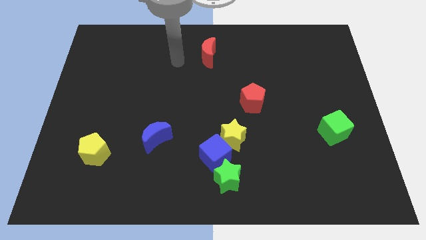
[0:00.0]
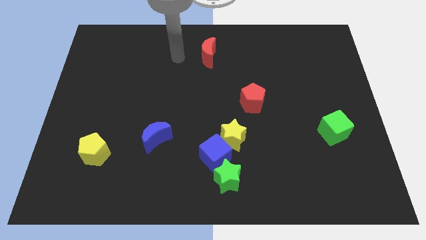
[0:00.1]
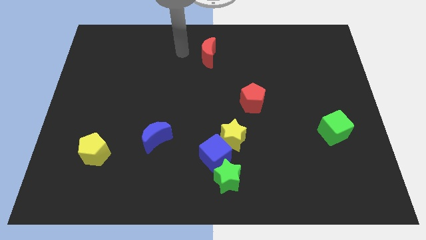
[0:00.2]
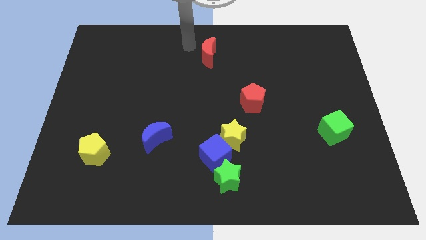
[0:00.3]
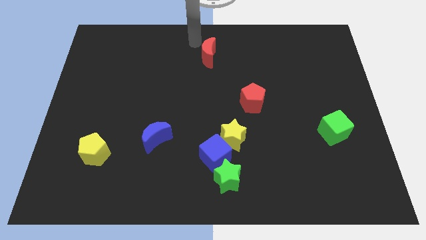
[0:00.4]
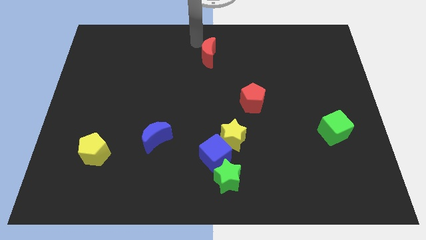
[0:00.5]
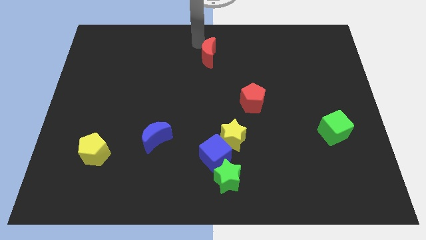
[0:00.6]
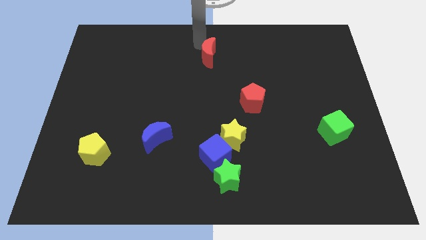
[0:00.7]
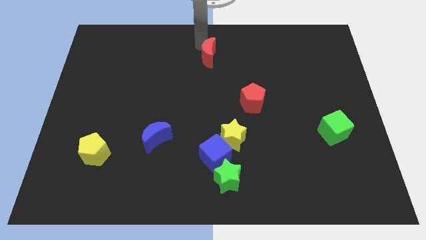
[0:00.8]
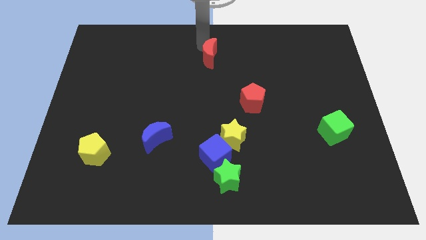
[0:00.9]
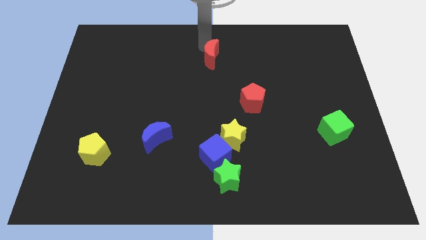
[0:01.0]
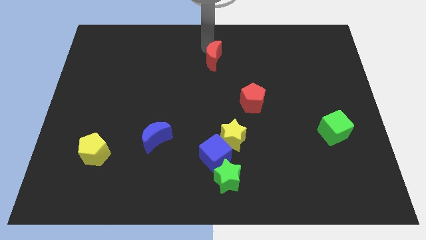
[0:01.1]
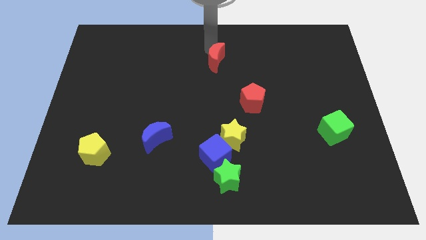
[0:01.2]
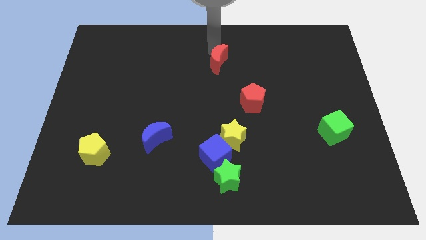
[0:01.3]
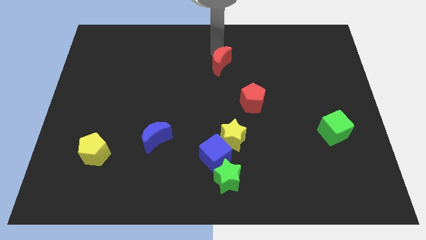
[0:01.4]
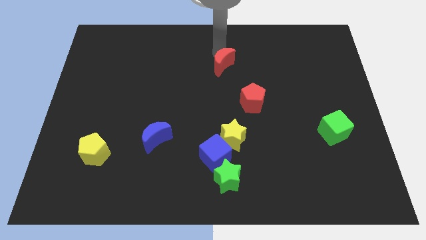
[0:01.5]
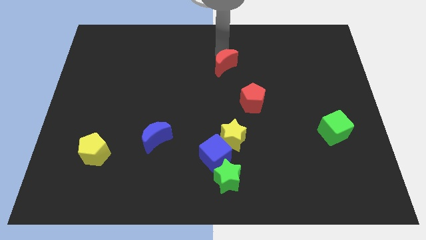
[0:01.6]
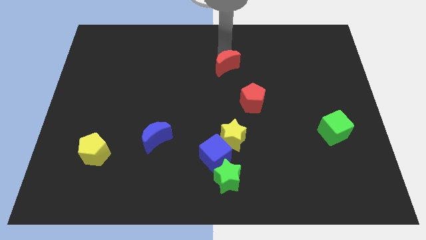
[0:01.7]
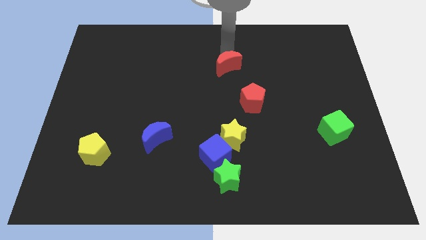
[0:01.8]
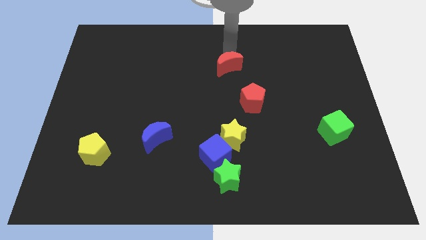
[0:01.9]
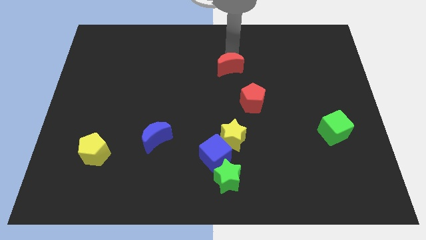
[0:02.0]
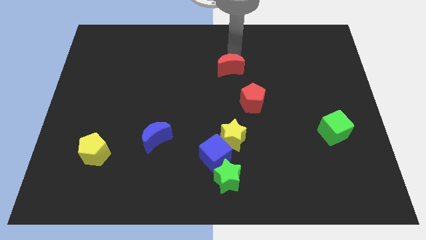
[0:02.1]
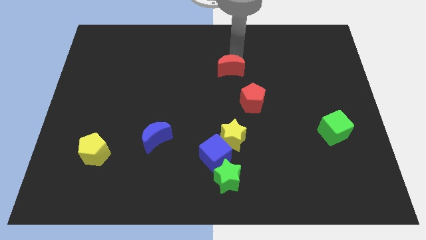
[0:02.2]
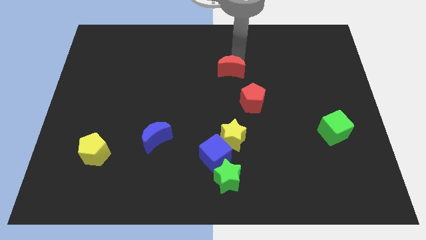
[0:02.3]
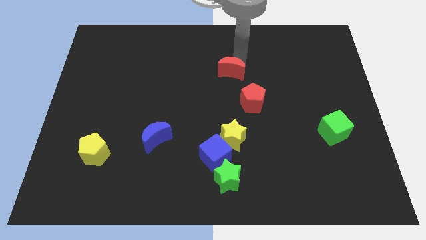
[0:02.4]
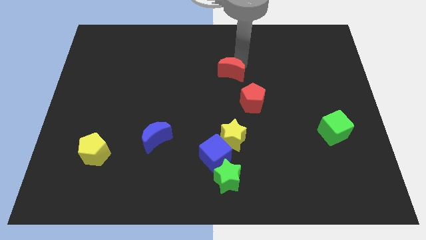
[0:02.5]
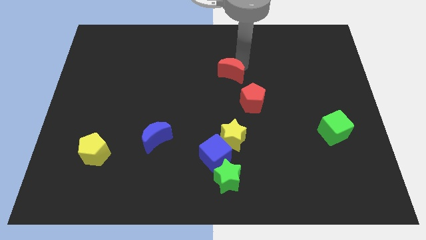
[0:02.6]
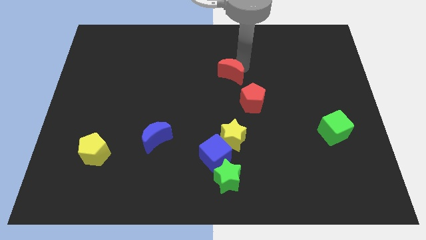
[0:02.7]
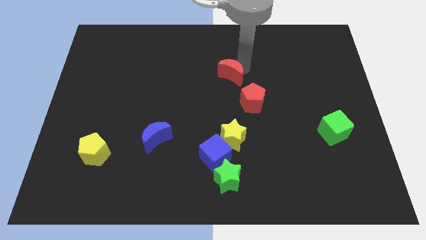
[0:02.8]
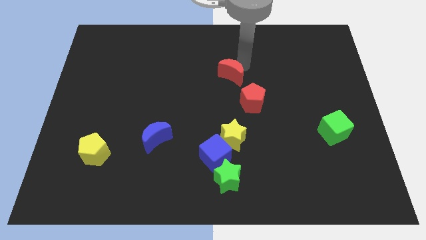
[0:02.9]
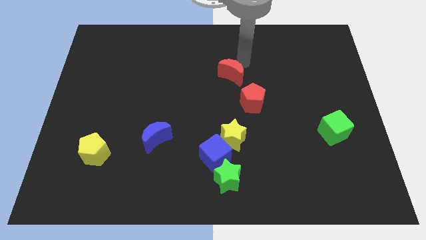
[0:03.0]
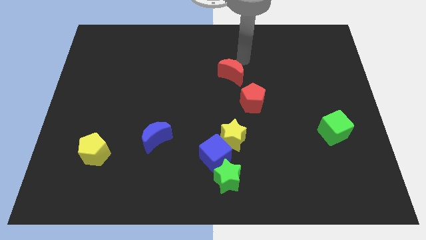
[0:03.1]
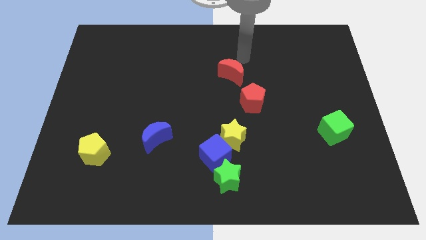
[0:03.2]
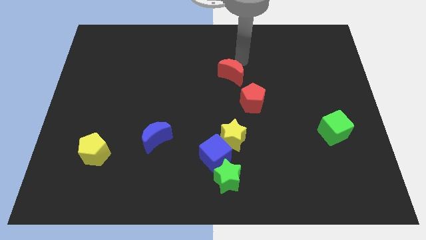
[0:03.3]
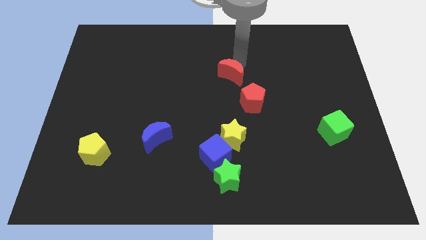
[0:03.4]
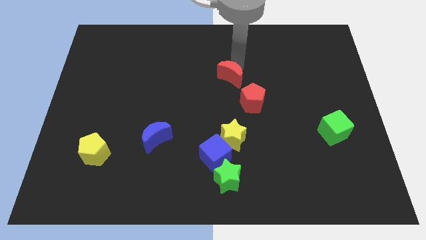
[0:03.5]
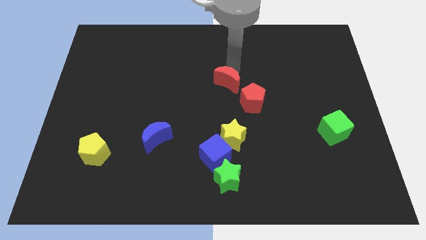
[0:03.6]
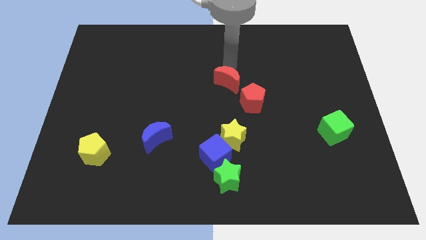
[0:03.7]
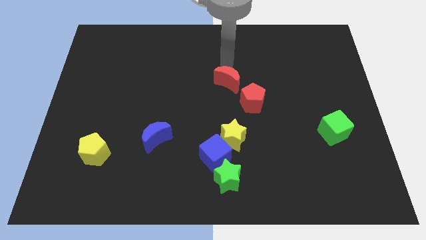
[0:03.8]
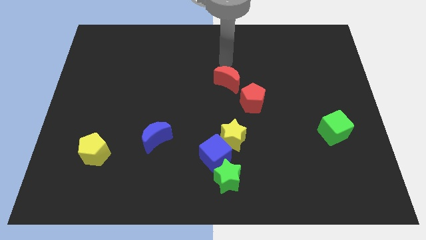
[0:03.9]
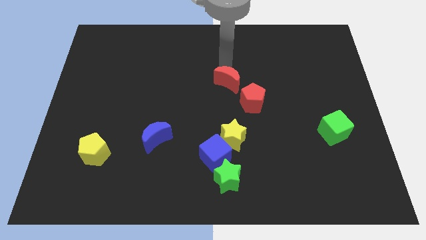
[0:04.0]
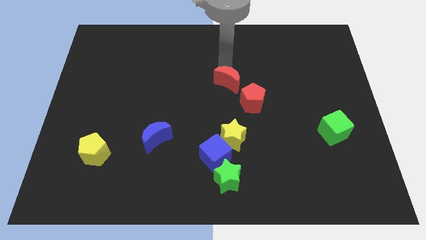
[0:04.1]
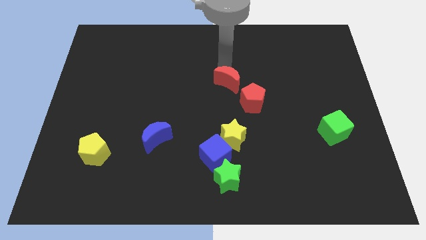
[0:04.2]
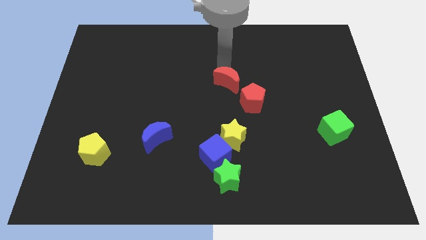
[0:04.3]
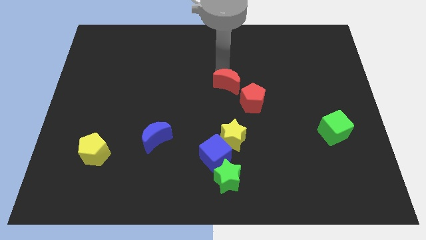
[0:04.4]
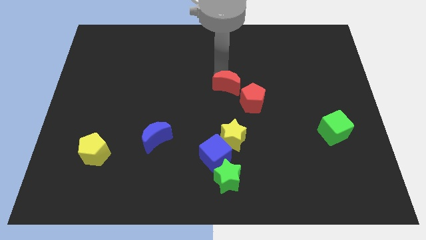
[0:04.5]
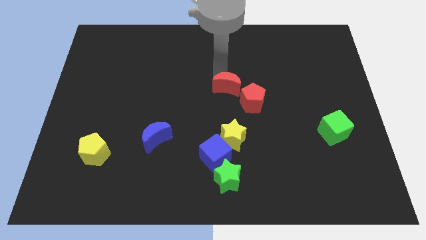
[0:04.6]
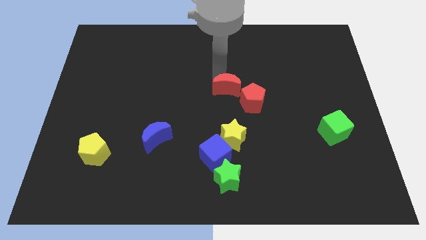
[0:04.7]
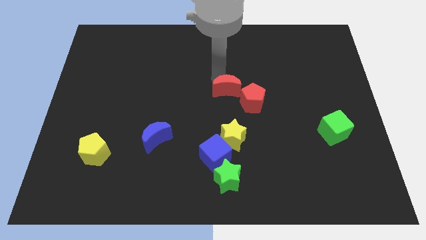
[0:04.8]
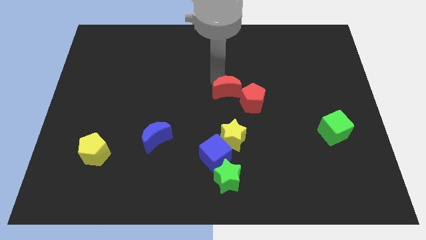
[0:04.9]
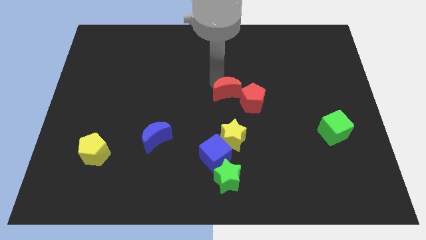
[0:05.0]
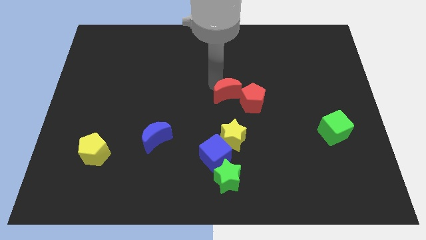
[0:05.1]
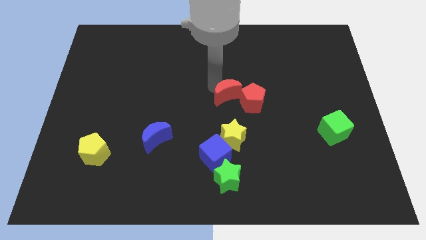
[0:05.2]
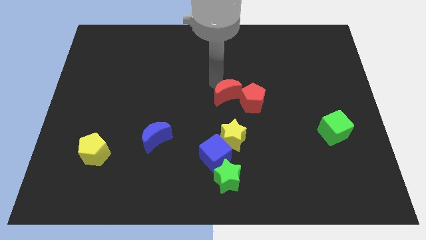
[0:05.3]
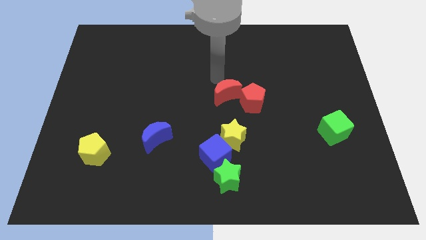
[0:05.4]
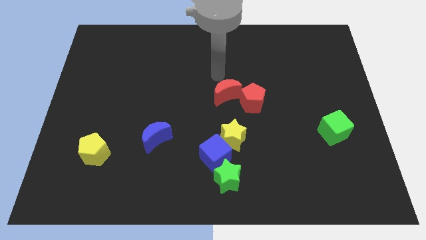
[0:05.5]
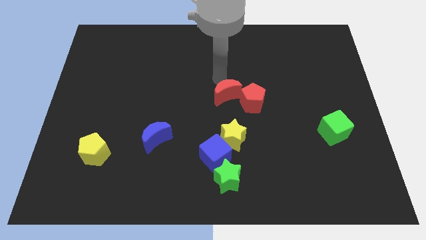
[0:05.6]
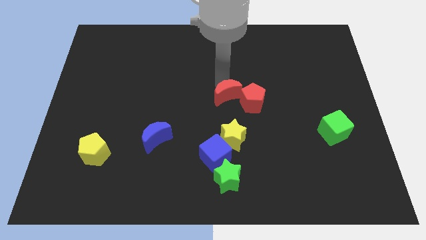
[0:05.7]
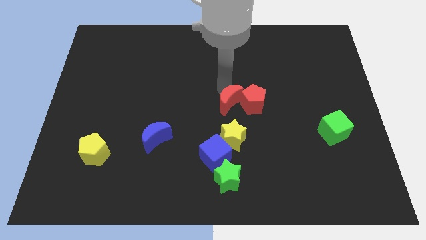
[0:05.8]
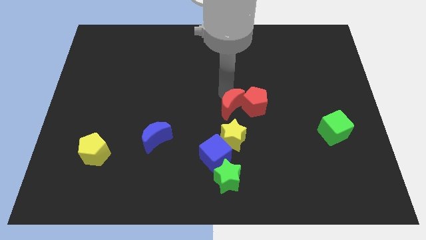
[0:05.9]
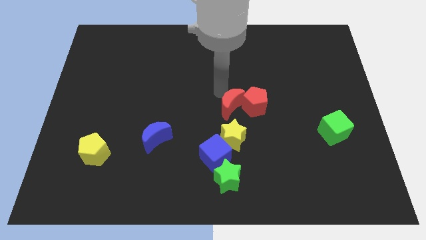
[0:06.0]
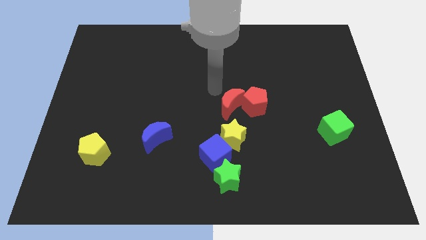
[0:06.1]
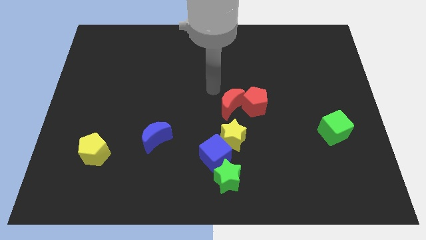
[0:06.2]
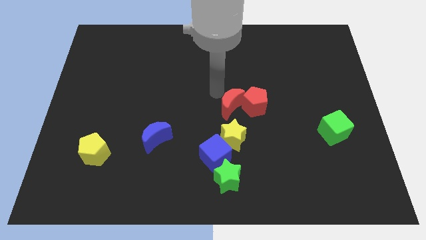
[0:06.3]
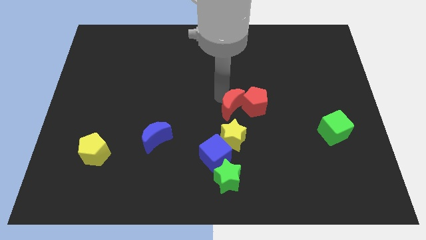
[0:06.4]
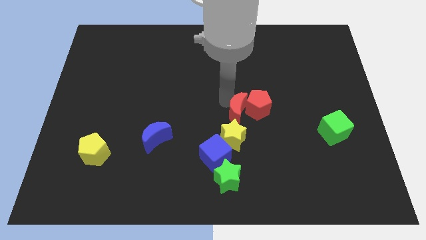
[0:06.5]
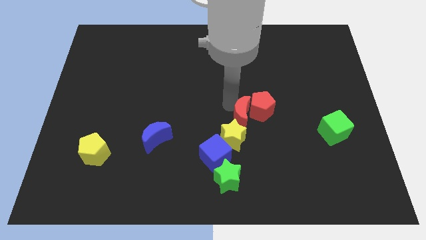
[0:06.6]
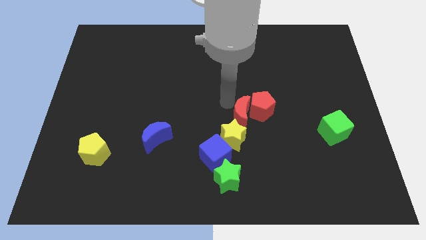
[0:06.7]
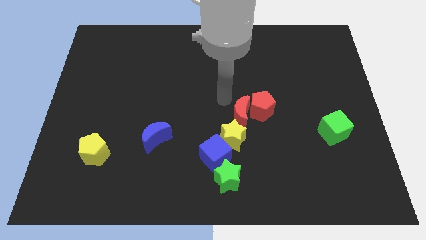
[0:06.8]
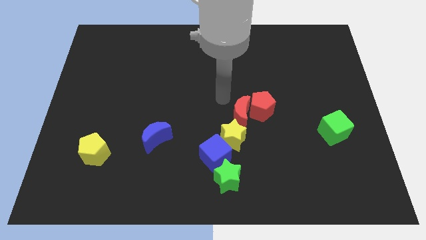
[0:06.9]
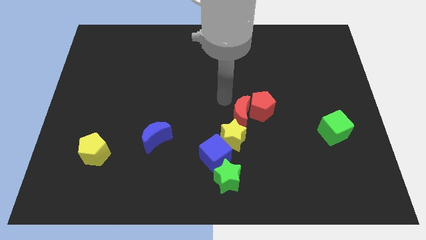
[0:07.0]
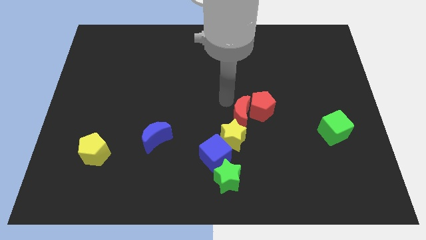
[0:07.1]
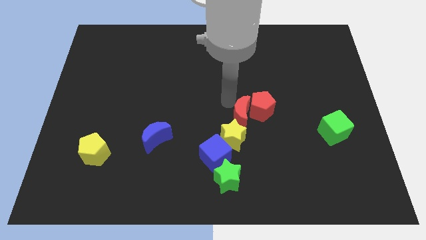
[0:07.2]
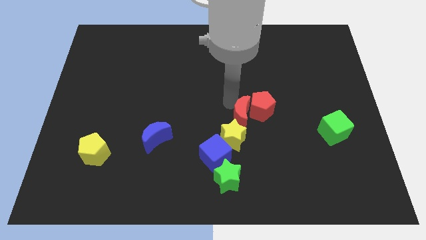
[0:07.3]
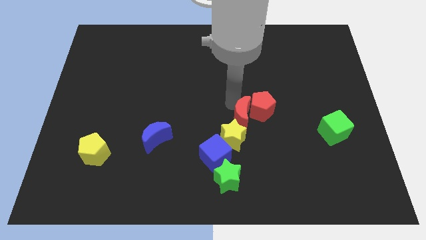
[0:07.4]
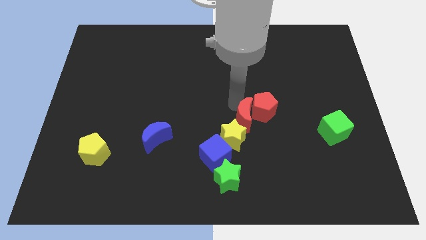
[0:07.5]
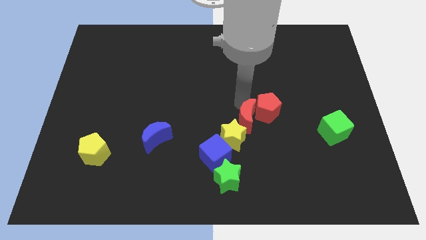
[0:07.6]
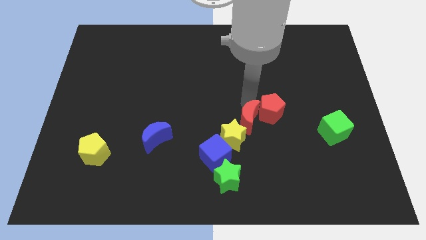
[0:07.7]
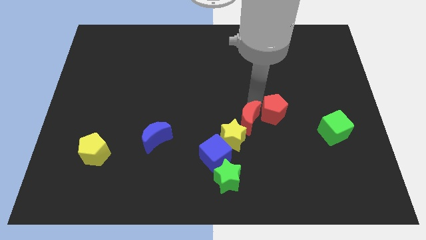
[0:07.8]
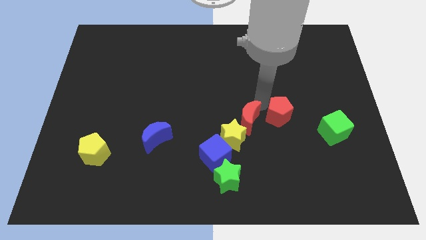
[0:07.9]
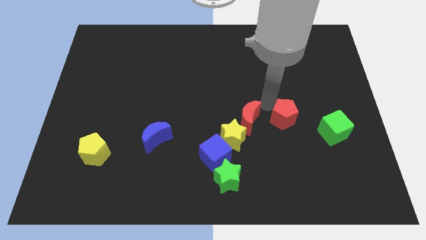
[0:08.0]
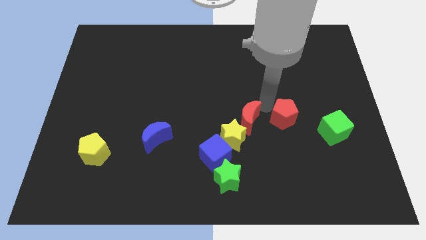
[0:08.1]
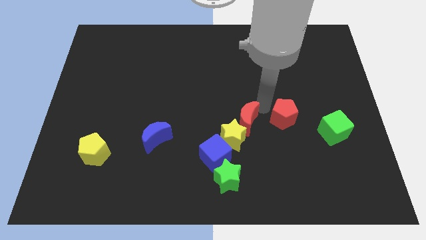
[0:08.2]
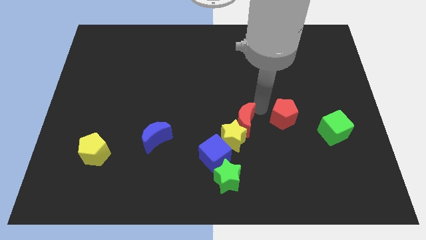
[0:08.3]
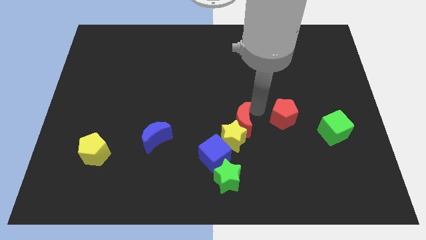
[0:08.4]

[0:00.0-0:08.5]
slide the red moon to the top side of the green star
